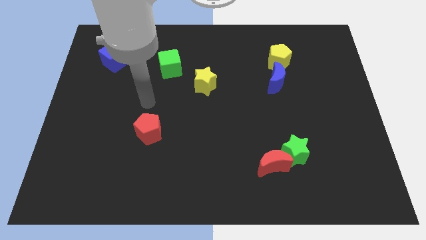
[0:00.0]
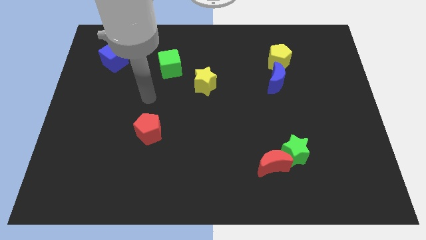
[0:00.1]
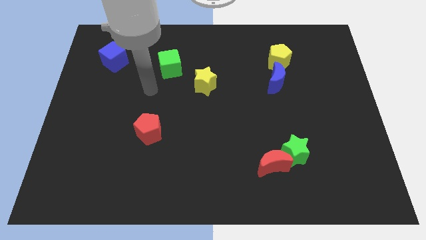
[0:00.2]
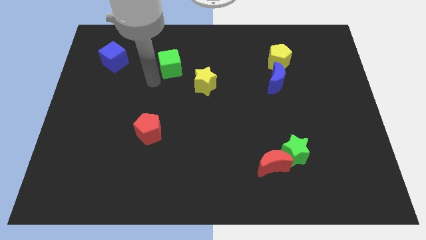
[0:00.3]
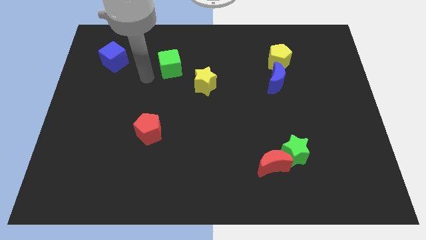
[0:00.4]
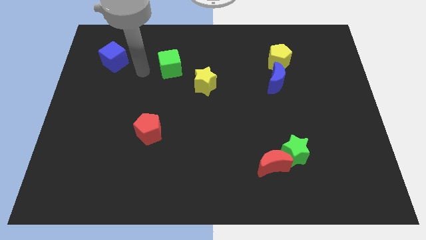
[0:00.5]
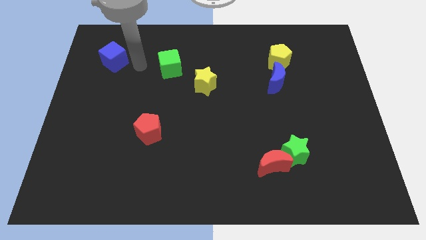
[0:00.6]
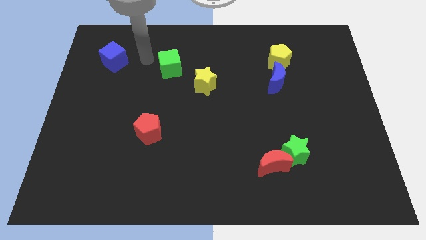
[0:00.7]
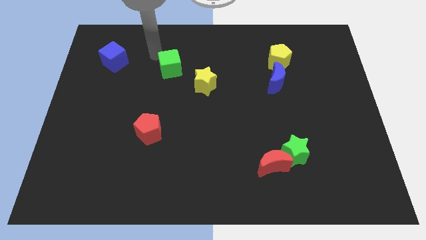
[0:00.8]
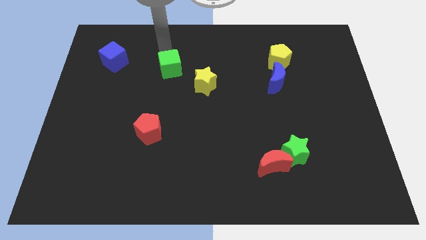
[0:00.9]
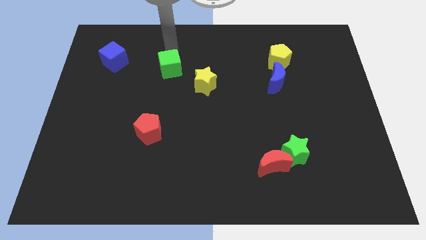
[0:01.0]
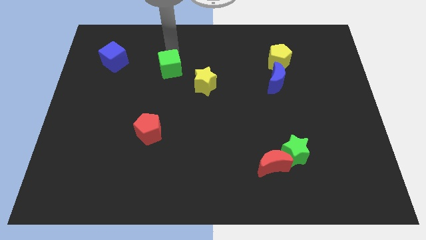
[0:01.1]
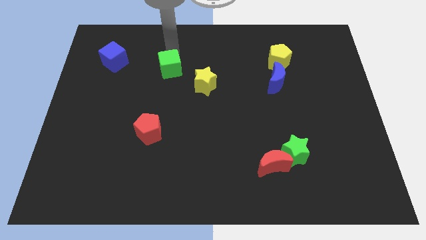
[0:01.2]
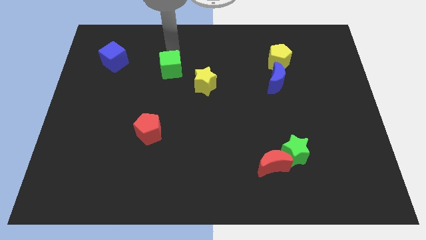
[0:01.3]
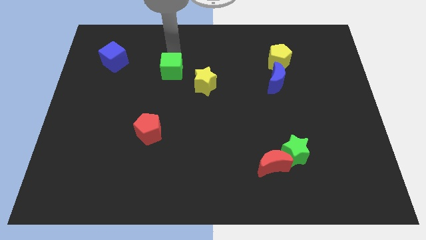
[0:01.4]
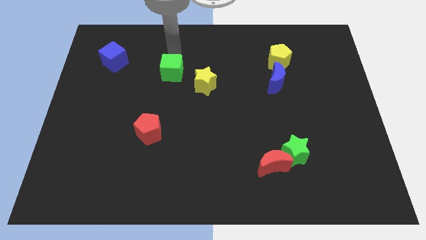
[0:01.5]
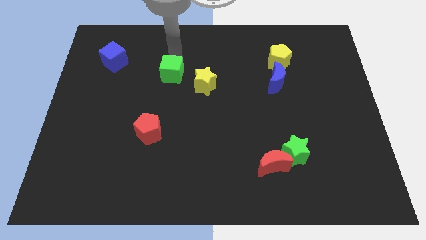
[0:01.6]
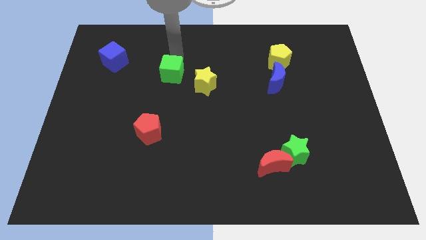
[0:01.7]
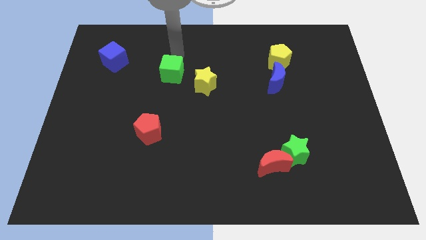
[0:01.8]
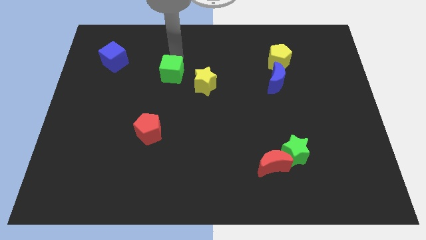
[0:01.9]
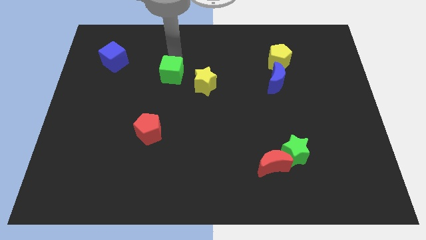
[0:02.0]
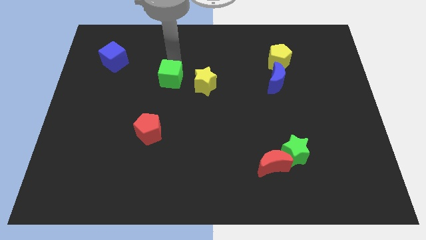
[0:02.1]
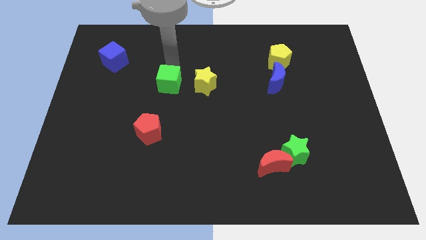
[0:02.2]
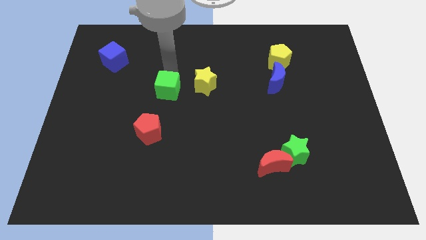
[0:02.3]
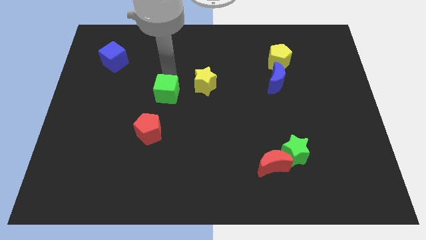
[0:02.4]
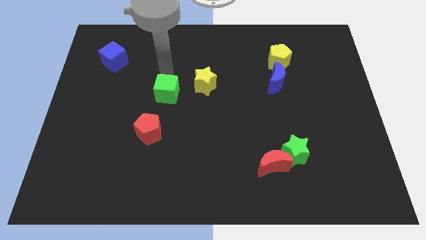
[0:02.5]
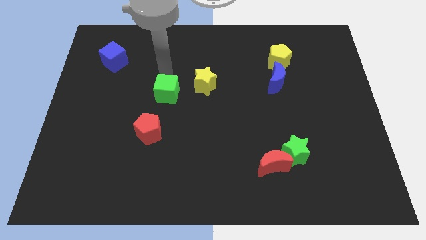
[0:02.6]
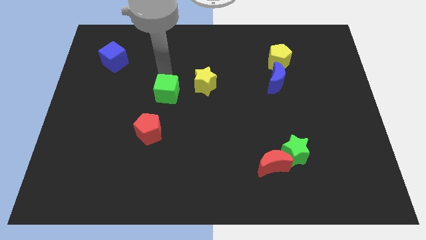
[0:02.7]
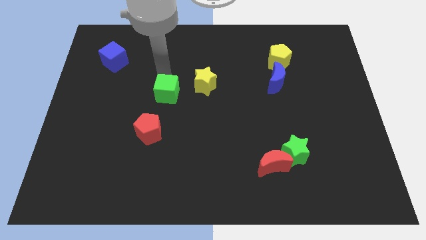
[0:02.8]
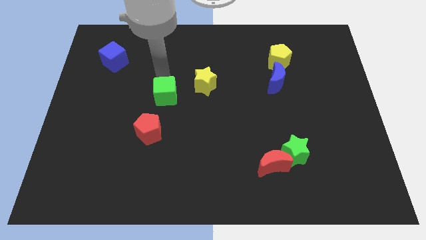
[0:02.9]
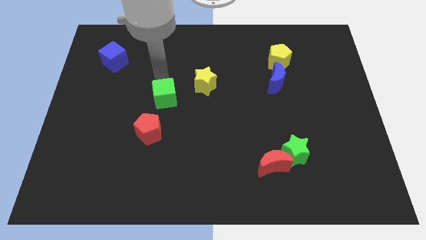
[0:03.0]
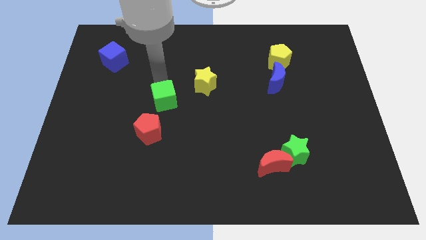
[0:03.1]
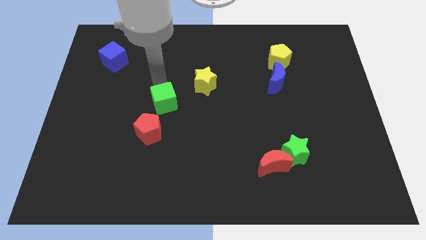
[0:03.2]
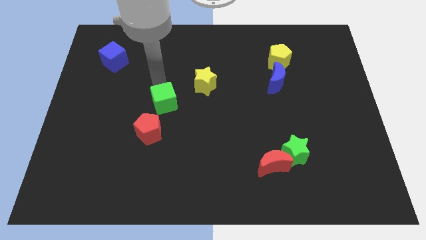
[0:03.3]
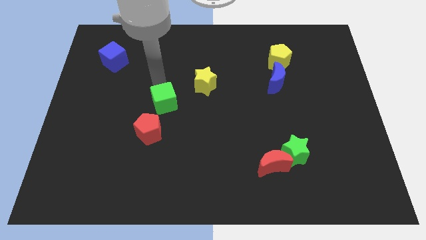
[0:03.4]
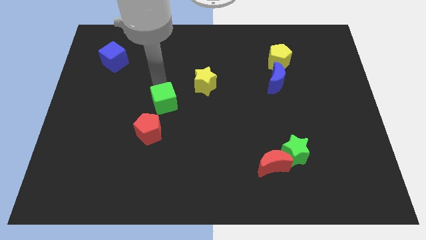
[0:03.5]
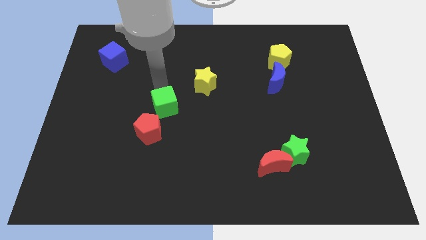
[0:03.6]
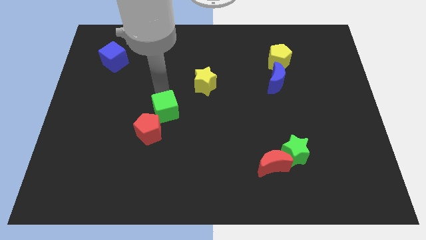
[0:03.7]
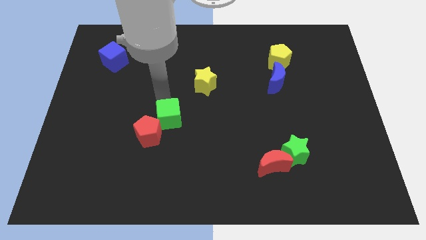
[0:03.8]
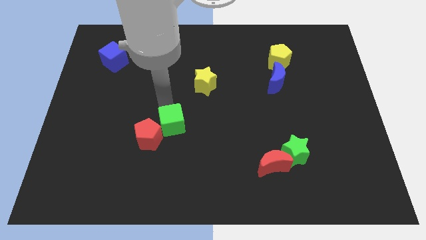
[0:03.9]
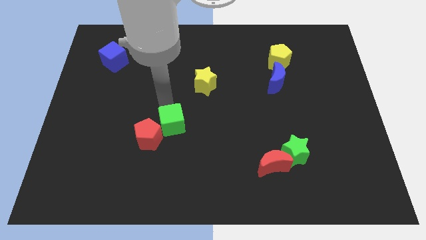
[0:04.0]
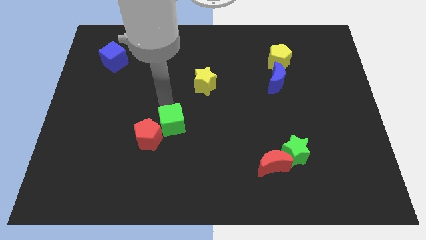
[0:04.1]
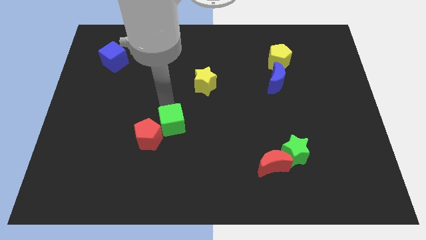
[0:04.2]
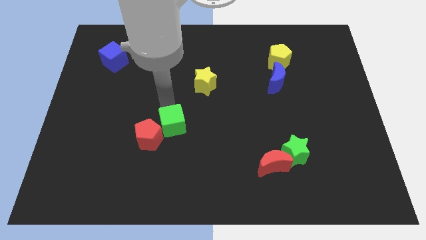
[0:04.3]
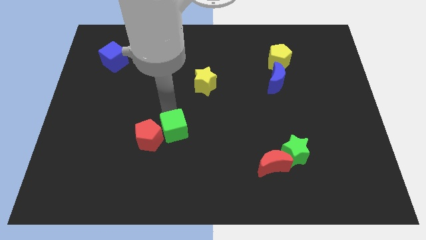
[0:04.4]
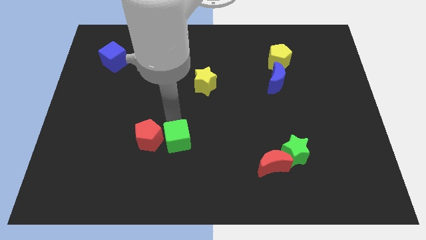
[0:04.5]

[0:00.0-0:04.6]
push the green cube downwards

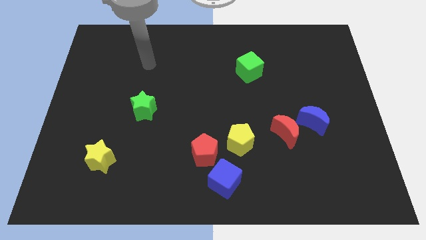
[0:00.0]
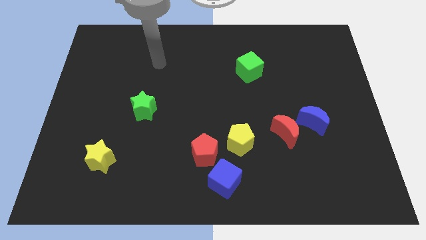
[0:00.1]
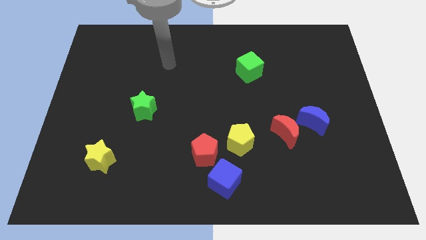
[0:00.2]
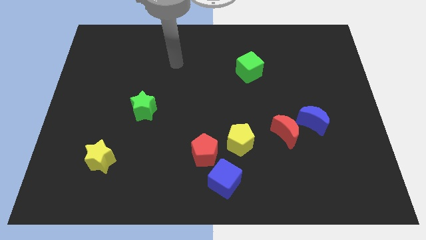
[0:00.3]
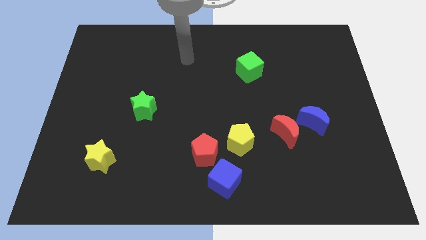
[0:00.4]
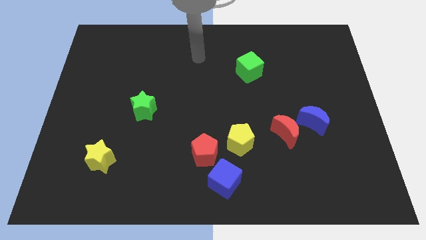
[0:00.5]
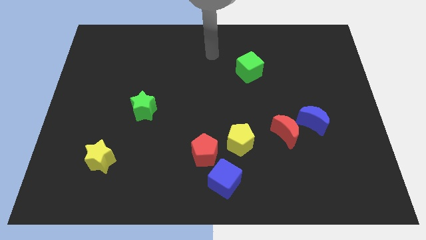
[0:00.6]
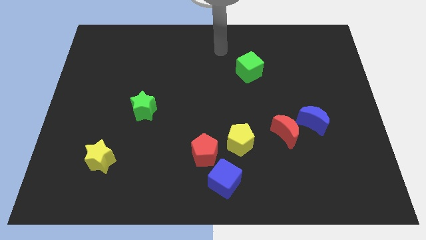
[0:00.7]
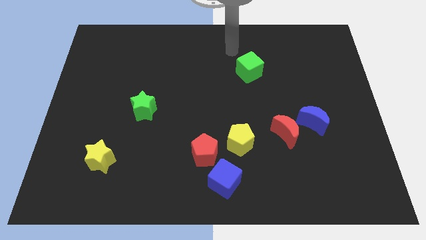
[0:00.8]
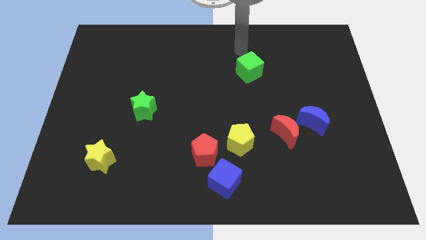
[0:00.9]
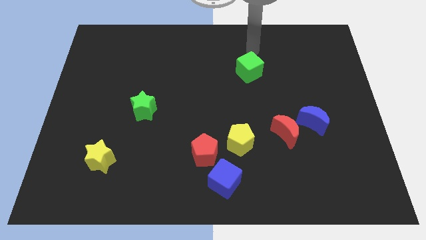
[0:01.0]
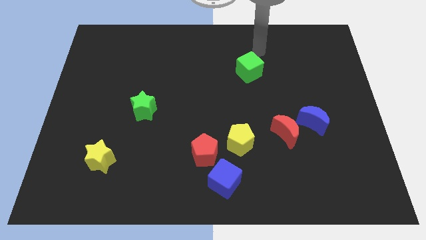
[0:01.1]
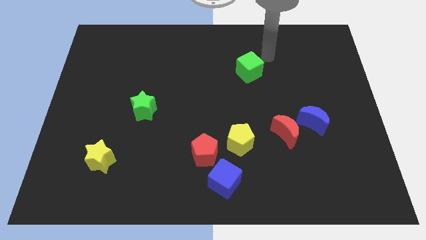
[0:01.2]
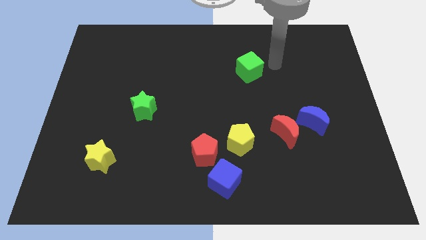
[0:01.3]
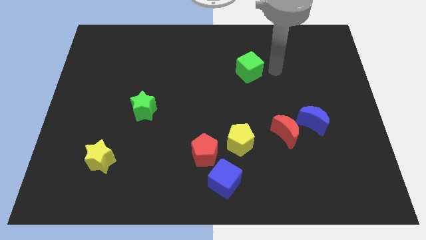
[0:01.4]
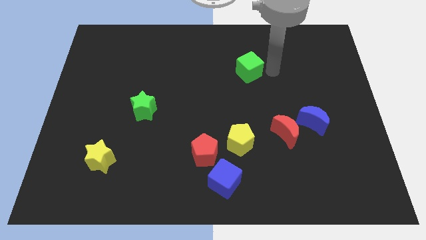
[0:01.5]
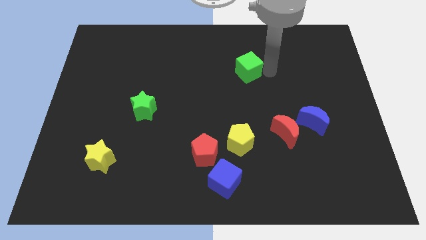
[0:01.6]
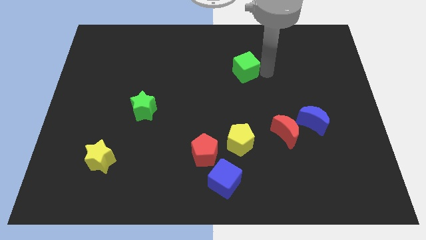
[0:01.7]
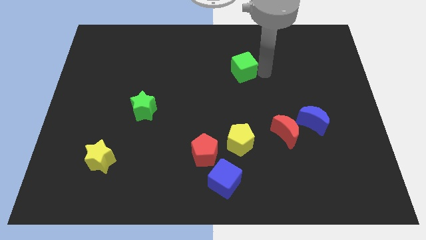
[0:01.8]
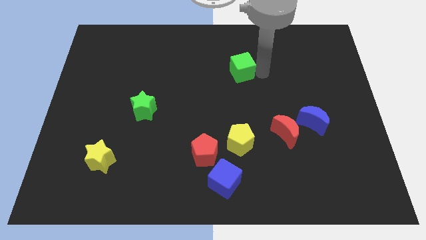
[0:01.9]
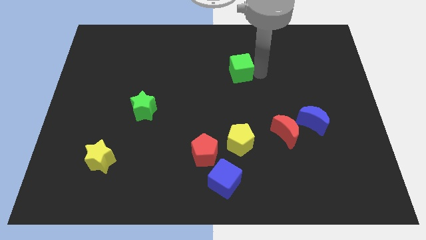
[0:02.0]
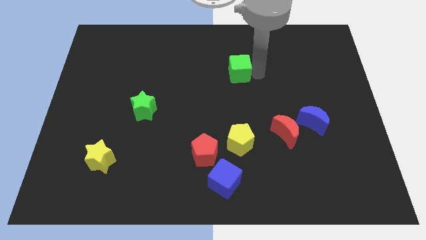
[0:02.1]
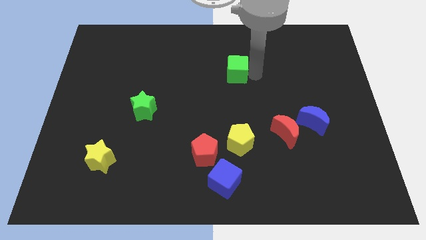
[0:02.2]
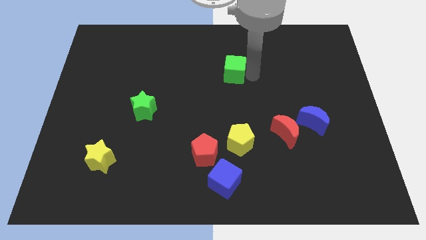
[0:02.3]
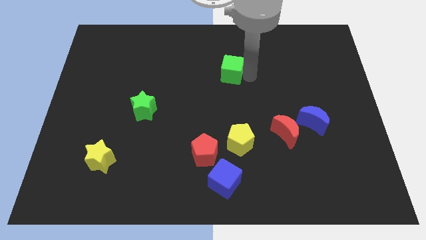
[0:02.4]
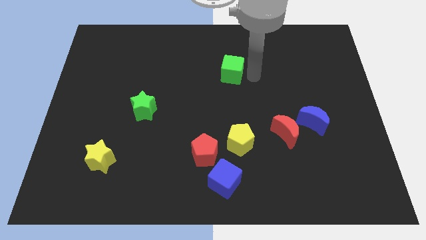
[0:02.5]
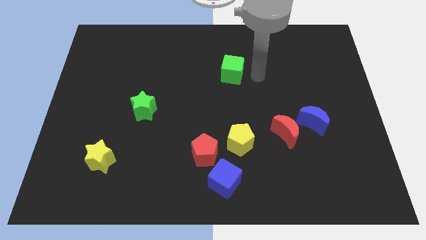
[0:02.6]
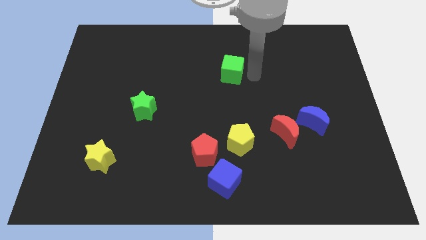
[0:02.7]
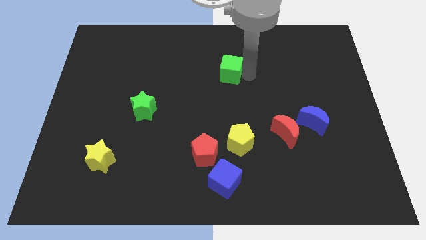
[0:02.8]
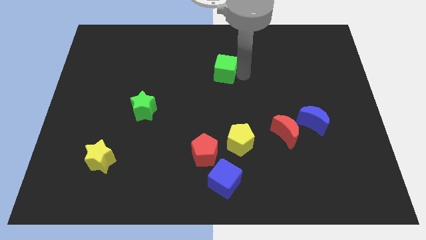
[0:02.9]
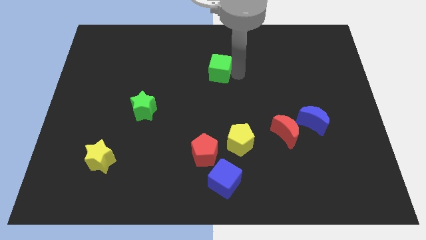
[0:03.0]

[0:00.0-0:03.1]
move the green cube a bit to the left
